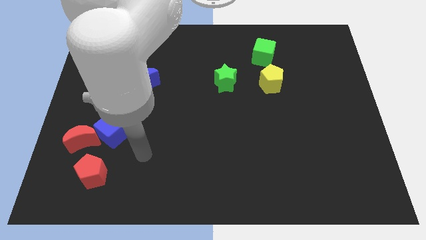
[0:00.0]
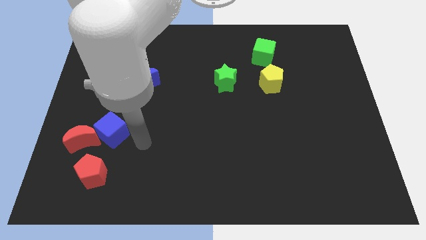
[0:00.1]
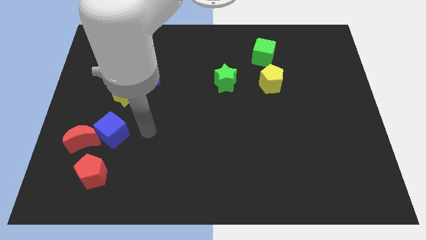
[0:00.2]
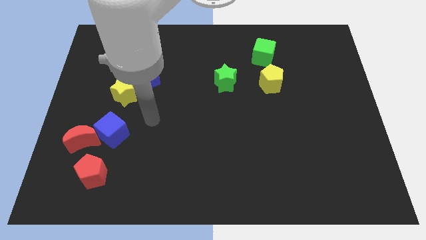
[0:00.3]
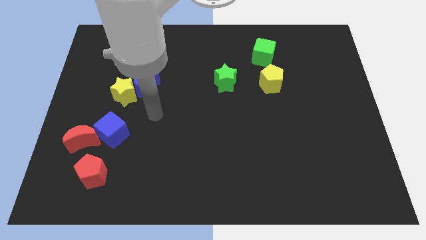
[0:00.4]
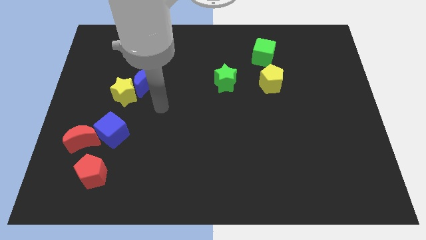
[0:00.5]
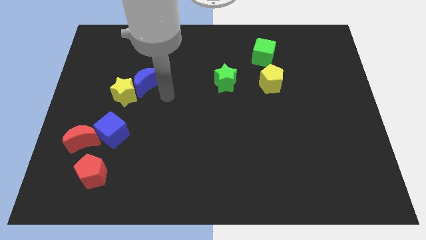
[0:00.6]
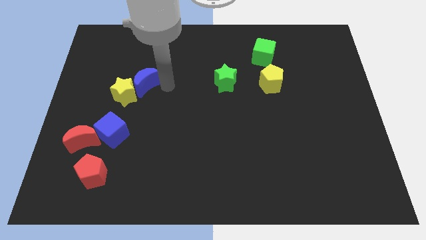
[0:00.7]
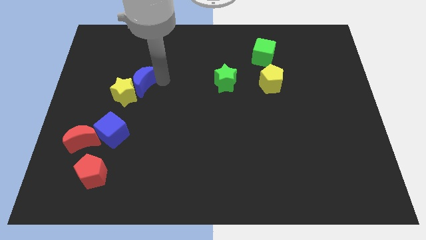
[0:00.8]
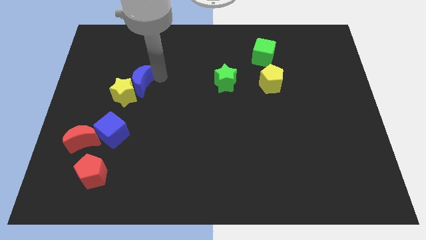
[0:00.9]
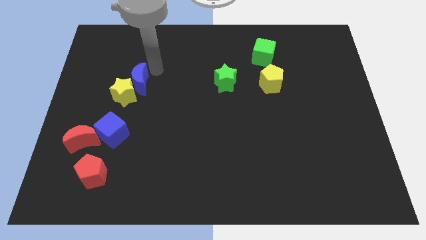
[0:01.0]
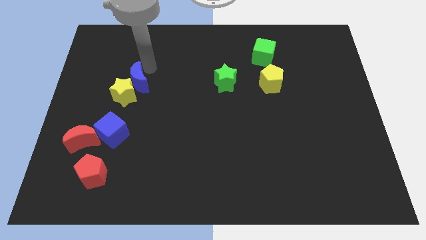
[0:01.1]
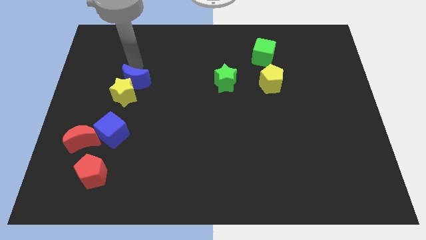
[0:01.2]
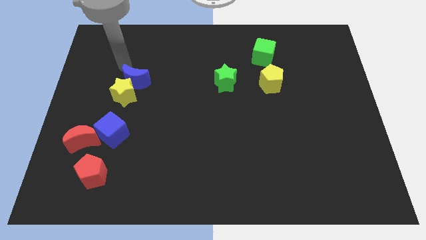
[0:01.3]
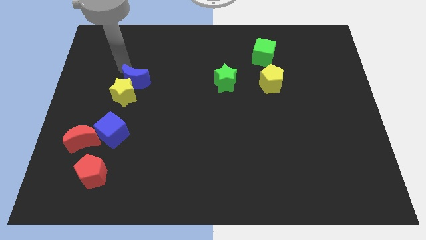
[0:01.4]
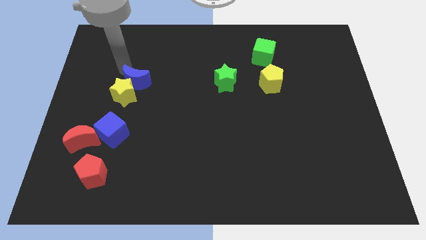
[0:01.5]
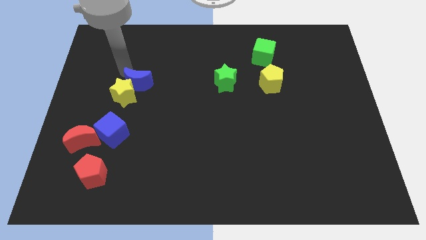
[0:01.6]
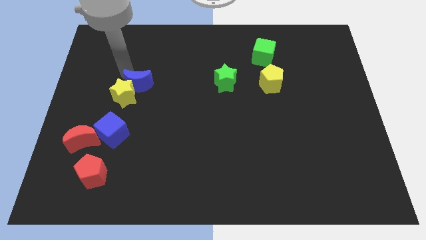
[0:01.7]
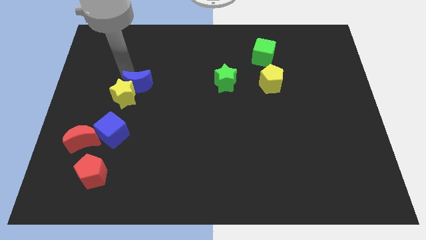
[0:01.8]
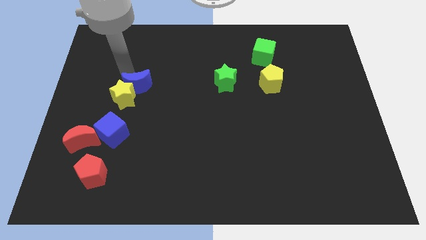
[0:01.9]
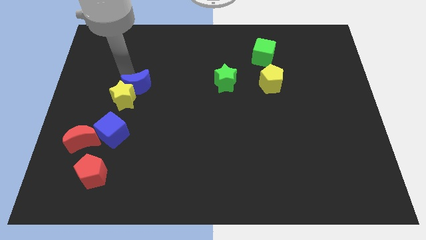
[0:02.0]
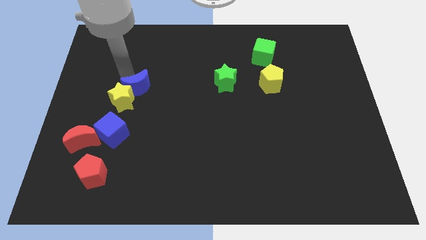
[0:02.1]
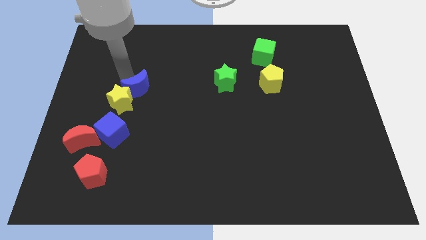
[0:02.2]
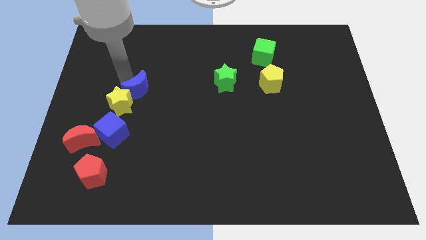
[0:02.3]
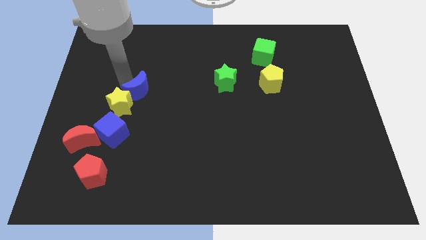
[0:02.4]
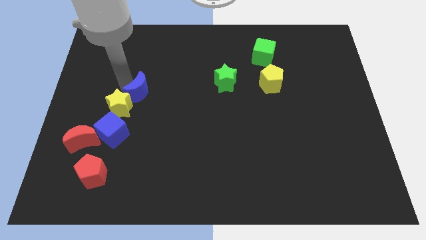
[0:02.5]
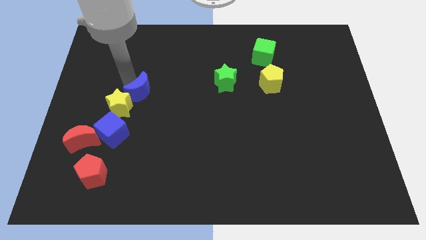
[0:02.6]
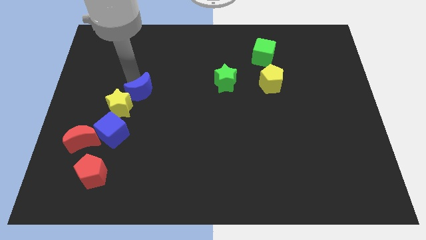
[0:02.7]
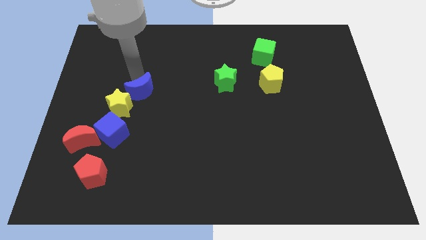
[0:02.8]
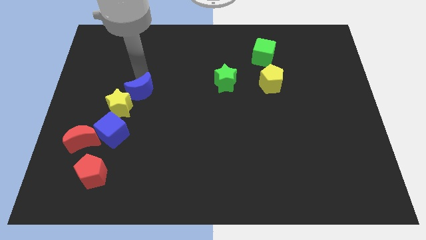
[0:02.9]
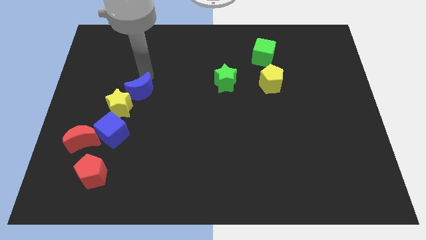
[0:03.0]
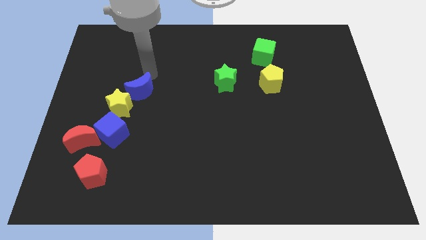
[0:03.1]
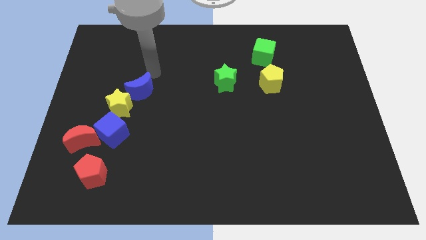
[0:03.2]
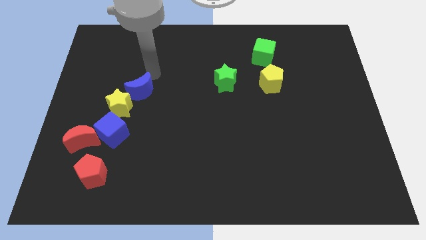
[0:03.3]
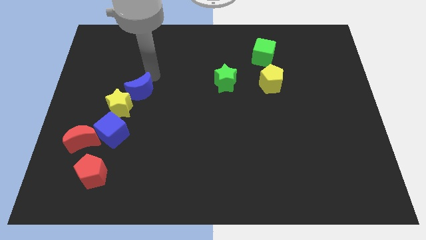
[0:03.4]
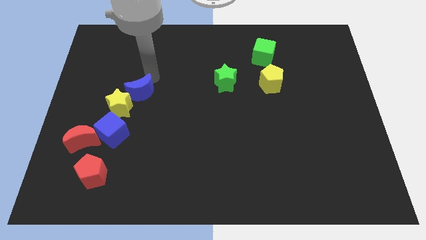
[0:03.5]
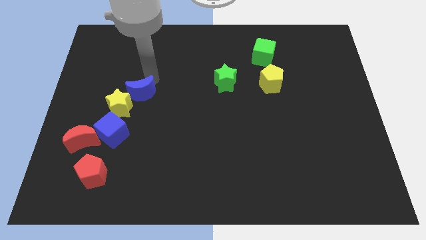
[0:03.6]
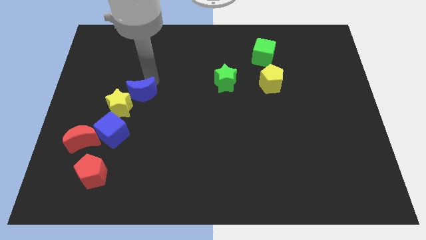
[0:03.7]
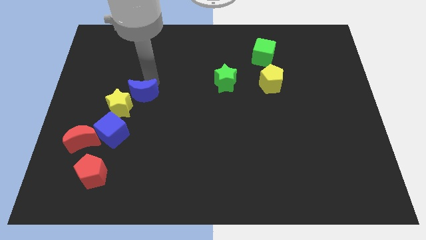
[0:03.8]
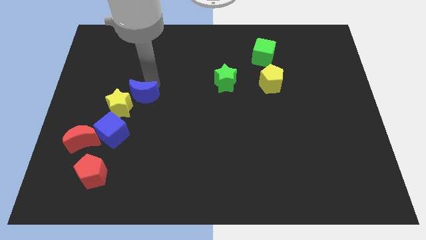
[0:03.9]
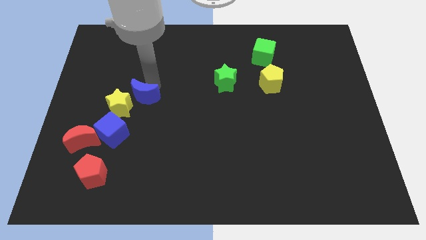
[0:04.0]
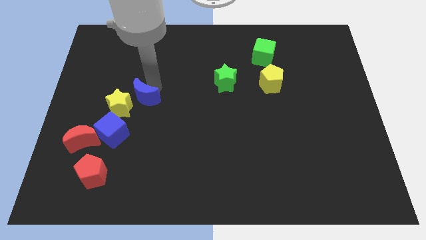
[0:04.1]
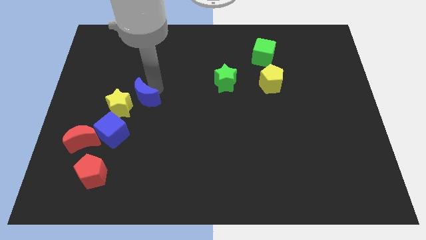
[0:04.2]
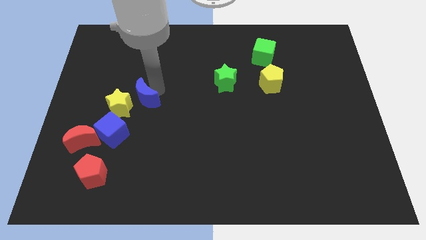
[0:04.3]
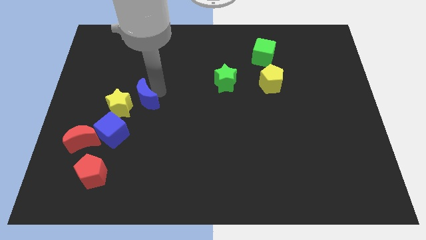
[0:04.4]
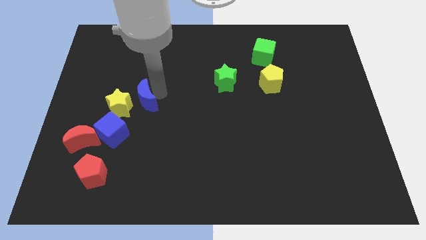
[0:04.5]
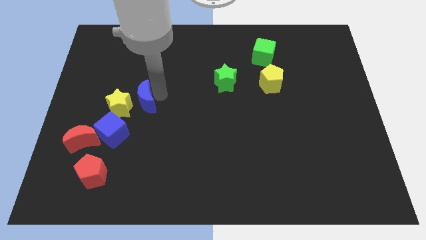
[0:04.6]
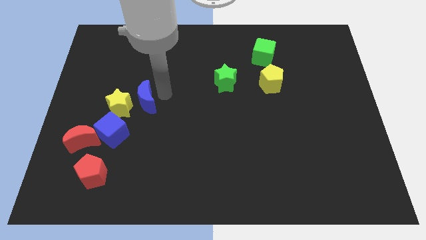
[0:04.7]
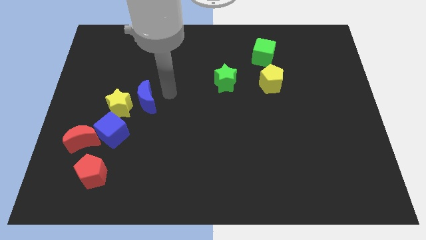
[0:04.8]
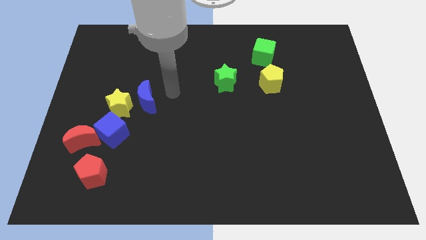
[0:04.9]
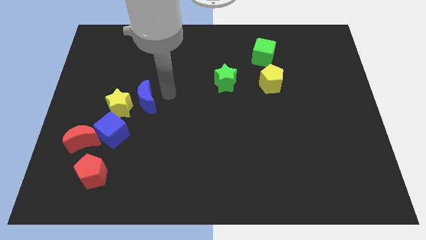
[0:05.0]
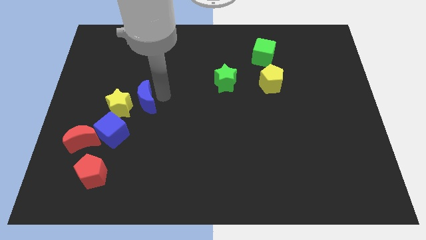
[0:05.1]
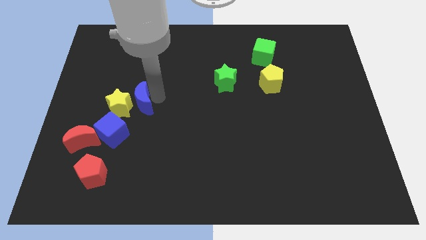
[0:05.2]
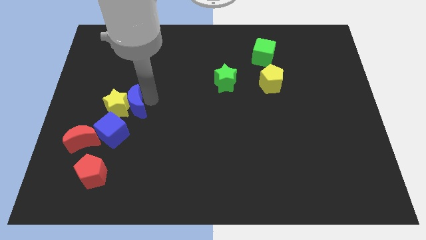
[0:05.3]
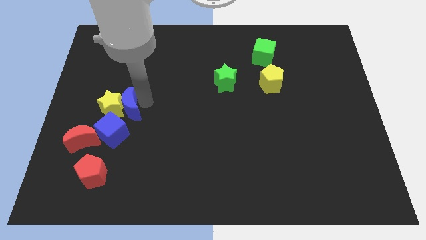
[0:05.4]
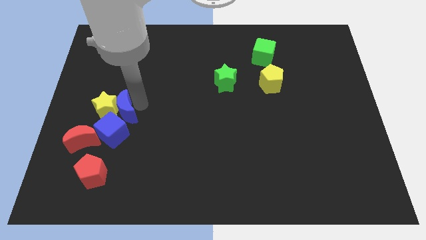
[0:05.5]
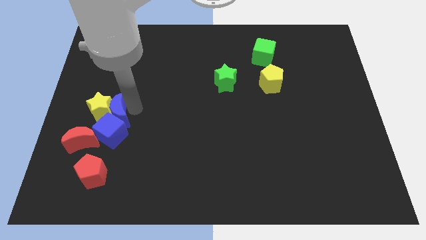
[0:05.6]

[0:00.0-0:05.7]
move the blue moon diagonally up and to the left of the blue cube

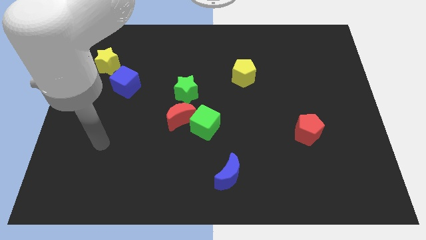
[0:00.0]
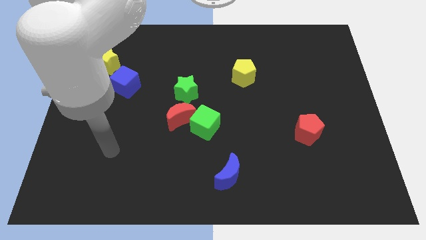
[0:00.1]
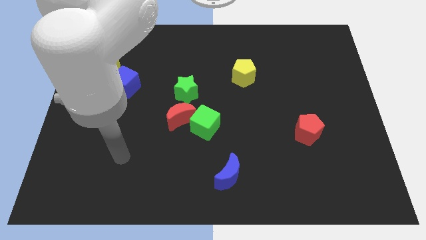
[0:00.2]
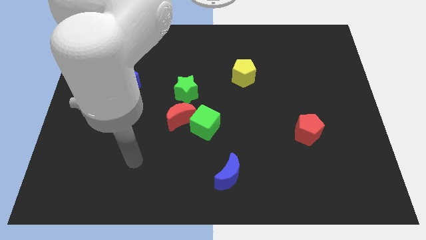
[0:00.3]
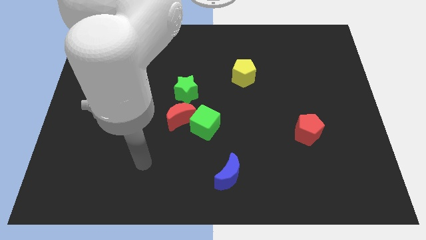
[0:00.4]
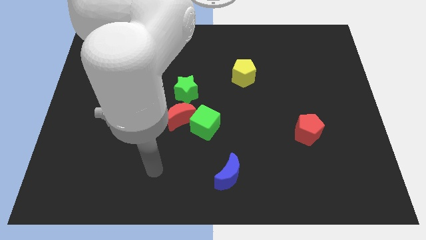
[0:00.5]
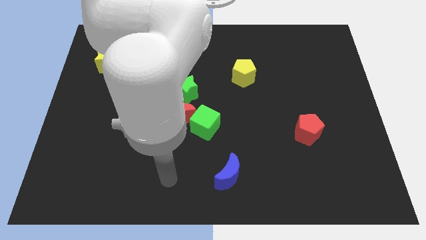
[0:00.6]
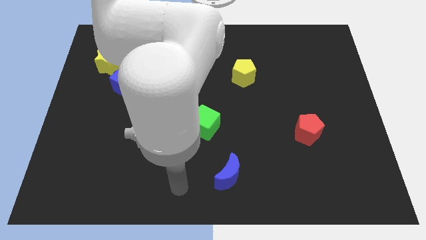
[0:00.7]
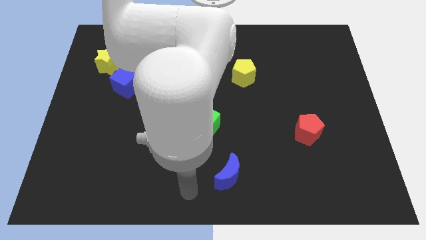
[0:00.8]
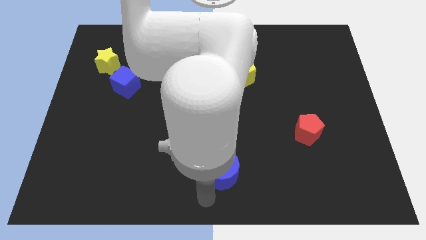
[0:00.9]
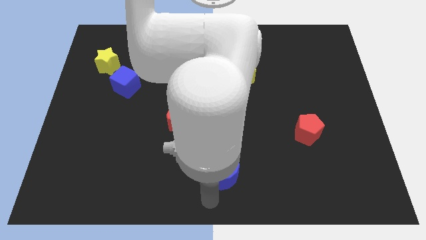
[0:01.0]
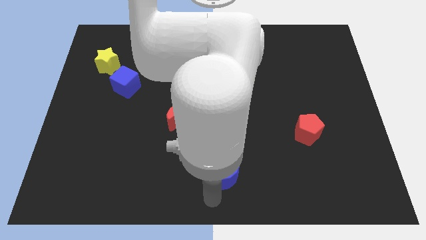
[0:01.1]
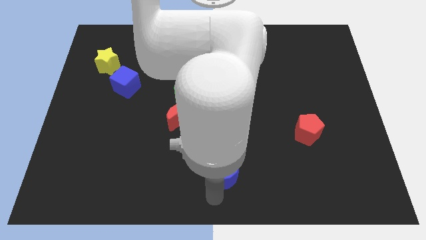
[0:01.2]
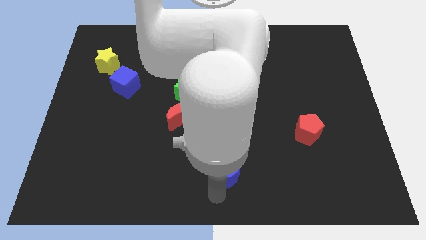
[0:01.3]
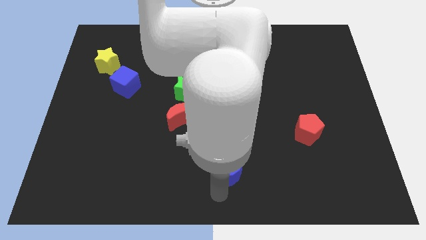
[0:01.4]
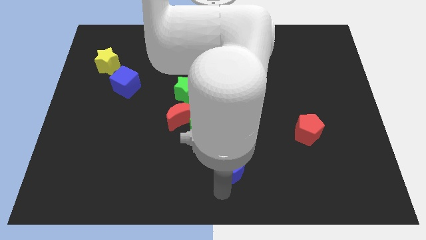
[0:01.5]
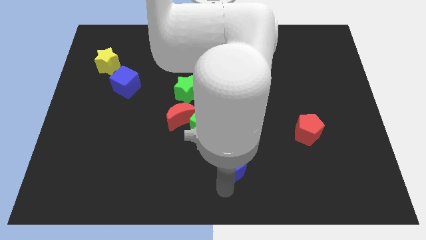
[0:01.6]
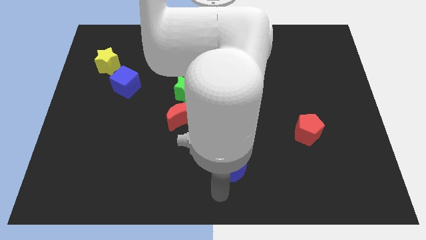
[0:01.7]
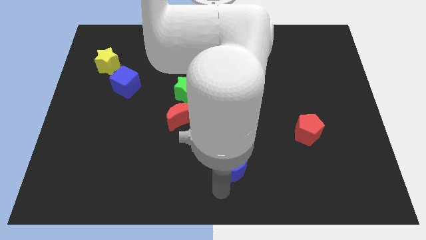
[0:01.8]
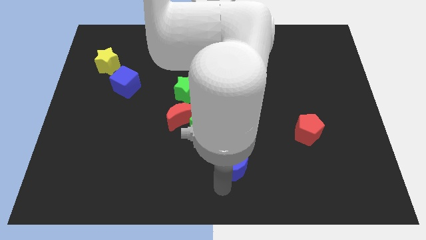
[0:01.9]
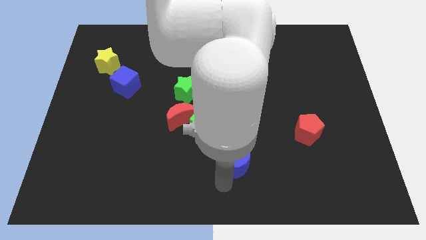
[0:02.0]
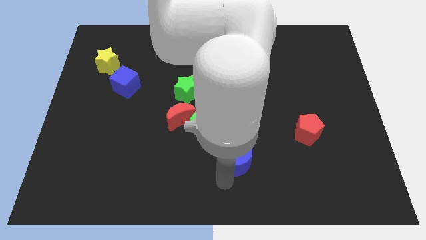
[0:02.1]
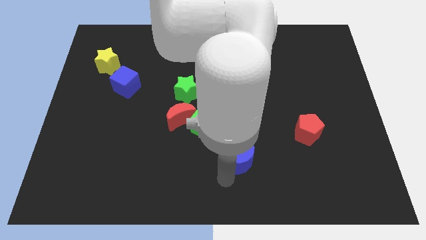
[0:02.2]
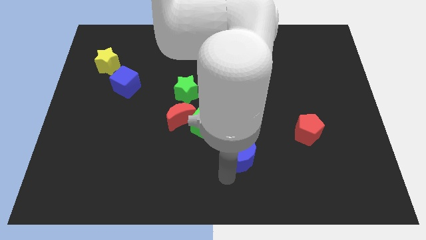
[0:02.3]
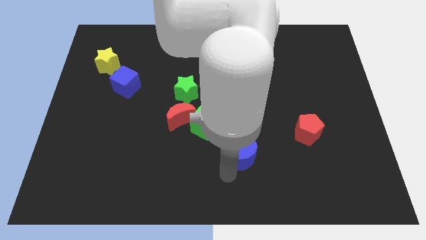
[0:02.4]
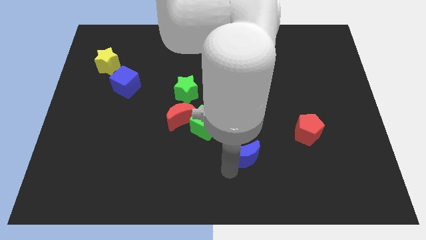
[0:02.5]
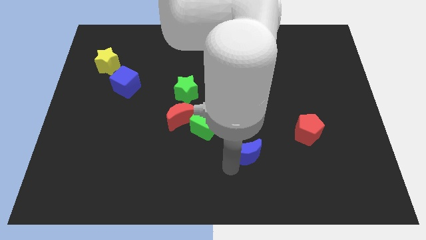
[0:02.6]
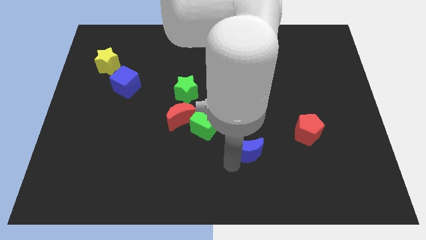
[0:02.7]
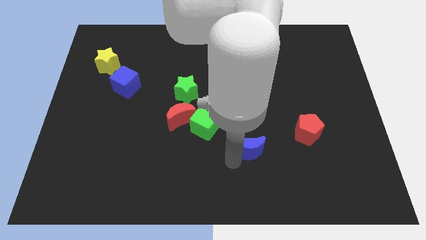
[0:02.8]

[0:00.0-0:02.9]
put the blue moon to the left of the red pentagon
